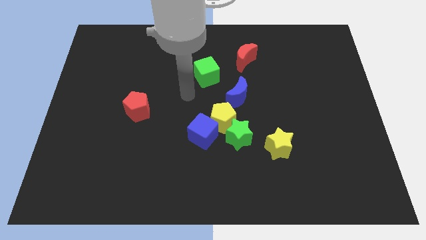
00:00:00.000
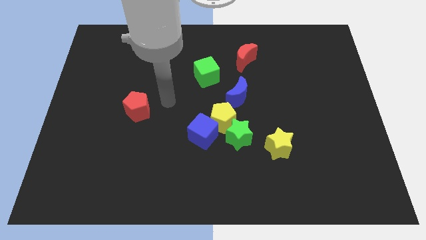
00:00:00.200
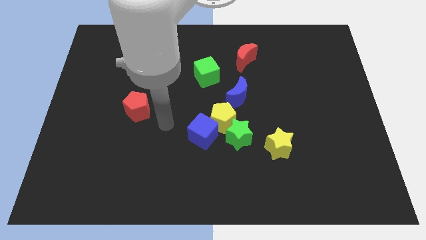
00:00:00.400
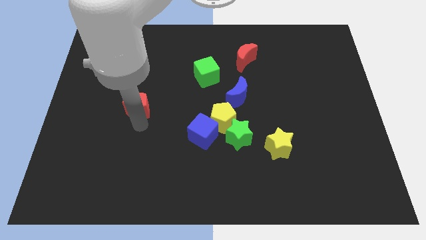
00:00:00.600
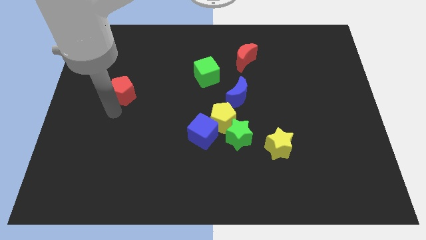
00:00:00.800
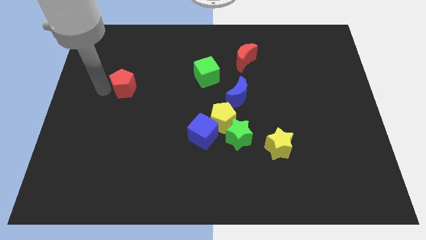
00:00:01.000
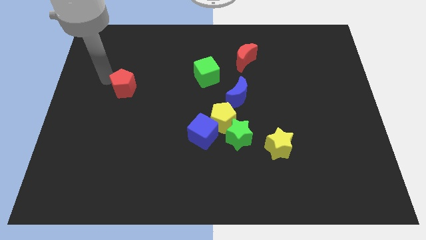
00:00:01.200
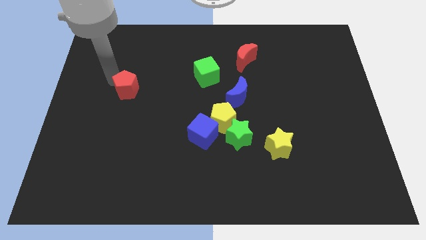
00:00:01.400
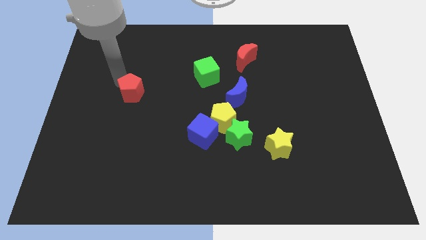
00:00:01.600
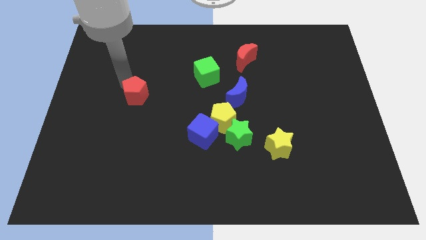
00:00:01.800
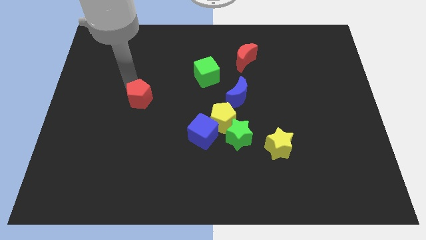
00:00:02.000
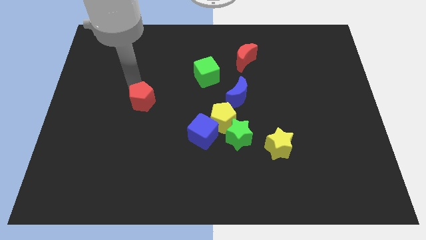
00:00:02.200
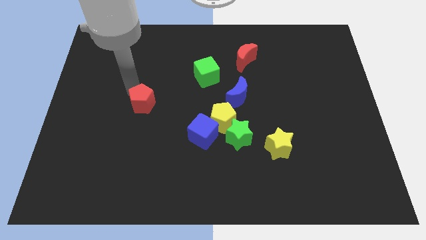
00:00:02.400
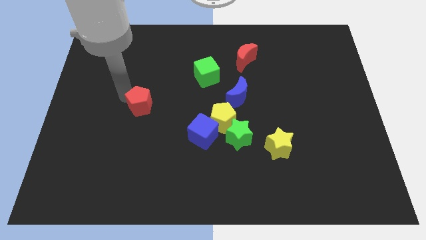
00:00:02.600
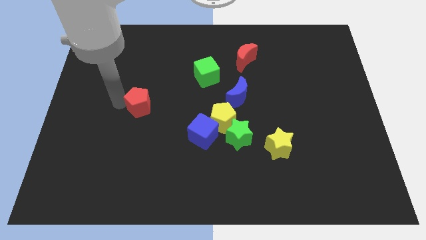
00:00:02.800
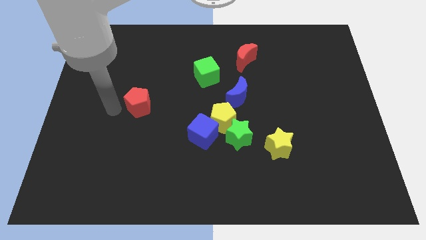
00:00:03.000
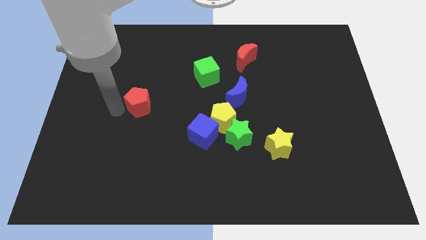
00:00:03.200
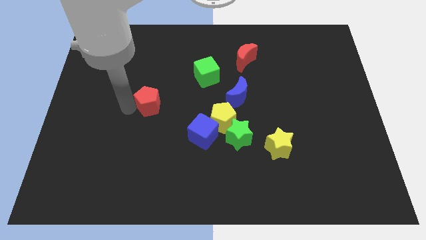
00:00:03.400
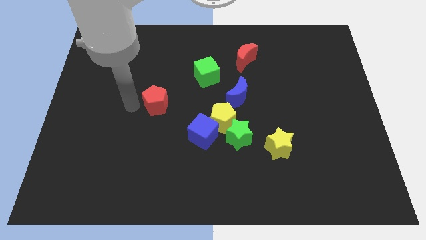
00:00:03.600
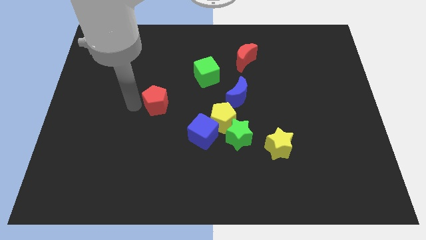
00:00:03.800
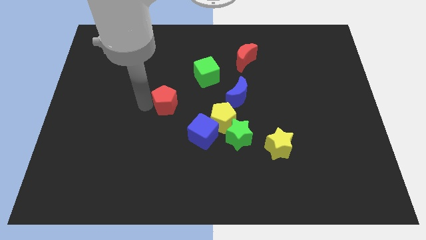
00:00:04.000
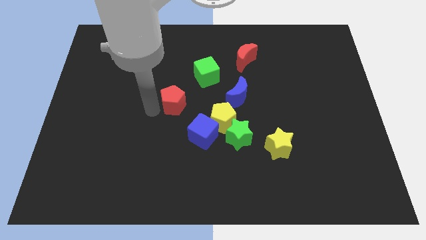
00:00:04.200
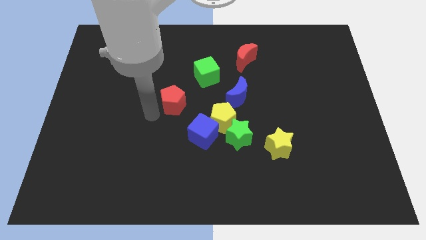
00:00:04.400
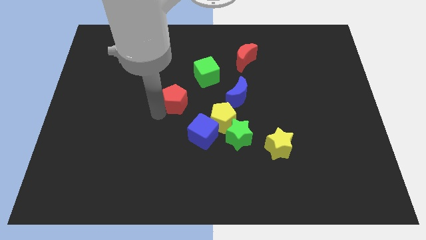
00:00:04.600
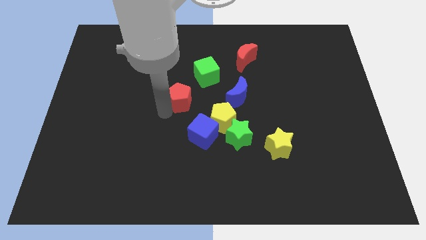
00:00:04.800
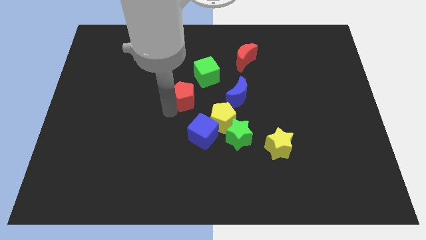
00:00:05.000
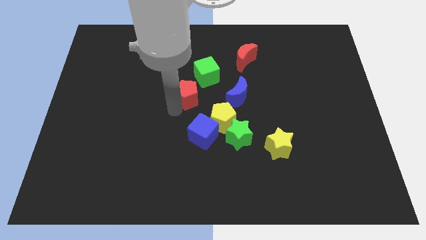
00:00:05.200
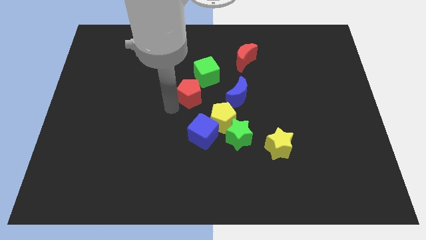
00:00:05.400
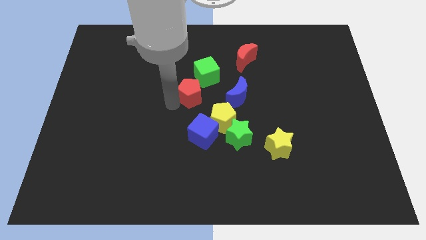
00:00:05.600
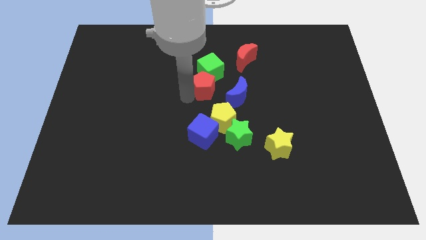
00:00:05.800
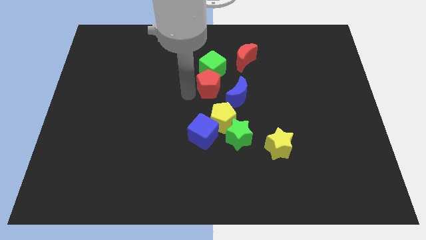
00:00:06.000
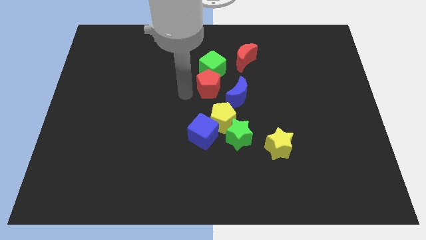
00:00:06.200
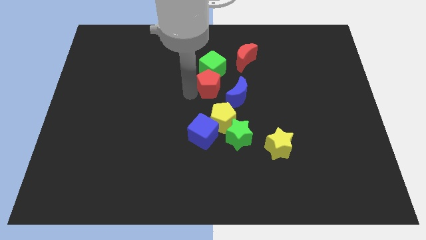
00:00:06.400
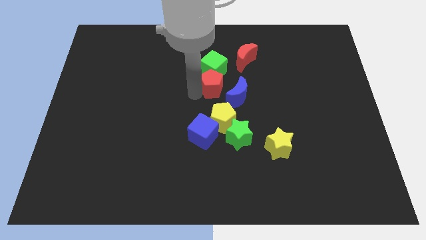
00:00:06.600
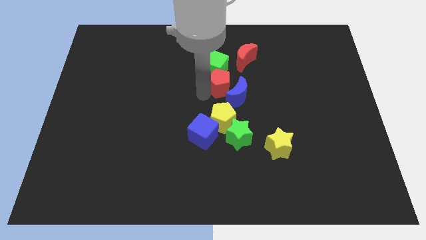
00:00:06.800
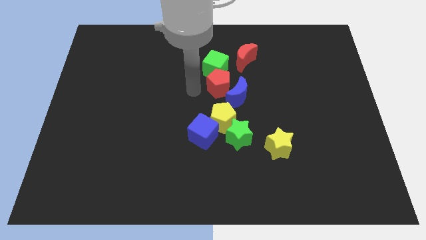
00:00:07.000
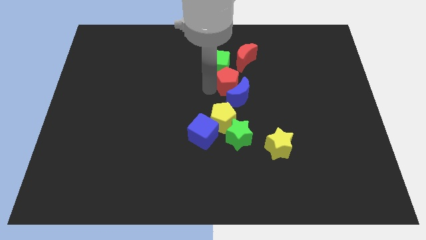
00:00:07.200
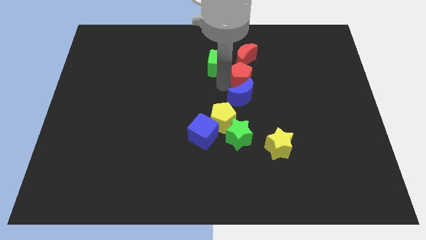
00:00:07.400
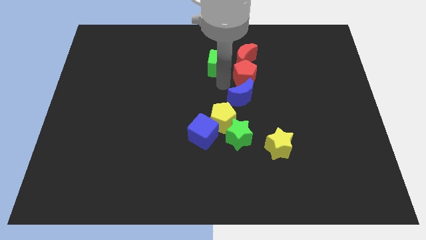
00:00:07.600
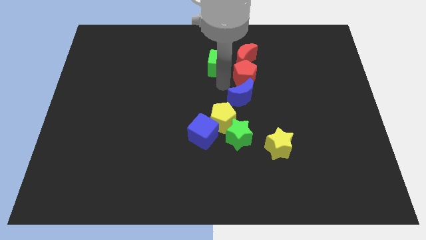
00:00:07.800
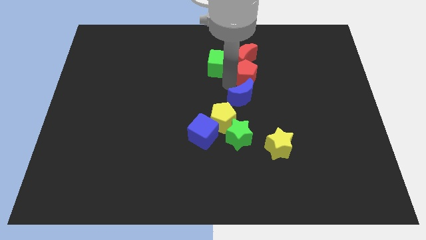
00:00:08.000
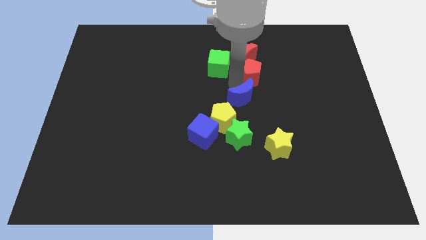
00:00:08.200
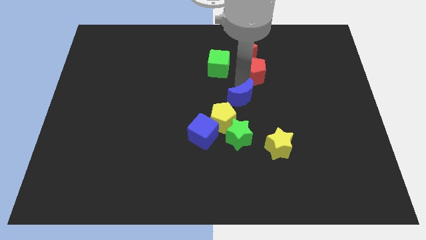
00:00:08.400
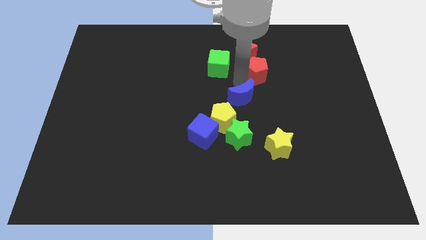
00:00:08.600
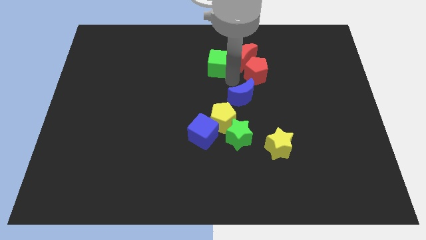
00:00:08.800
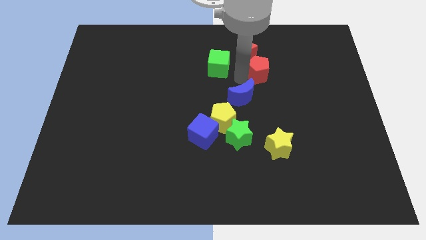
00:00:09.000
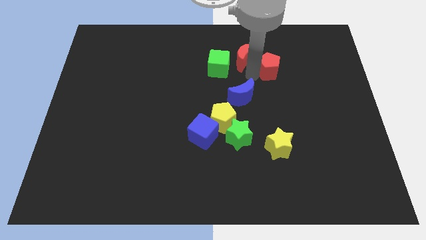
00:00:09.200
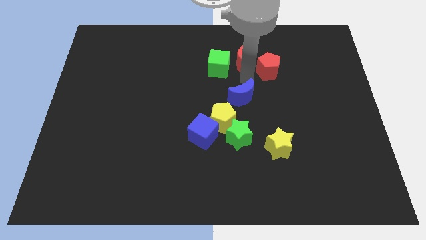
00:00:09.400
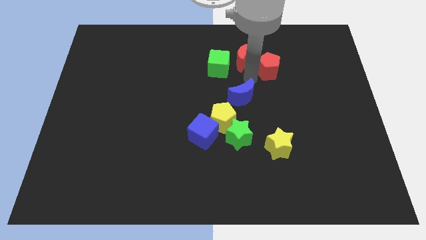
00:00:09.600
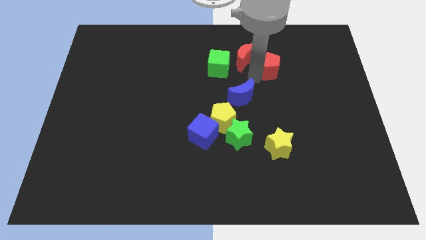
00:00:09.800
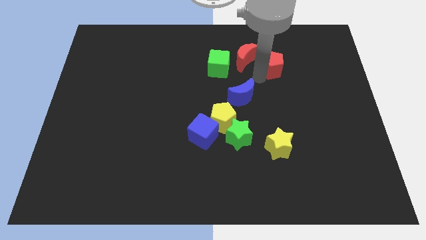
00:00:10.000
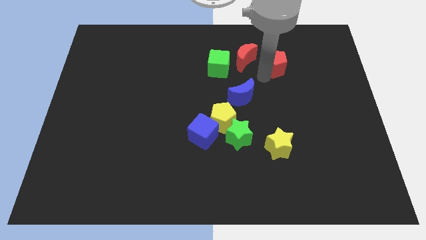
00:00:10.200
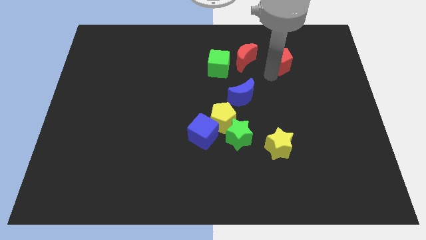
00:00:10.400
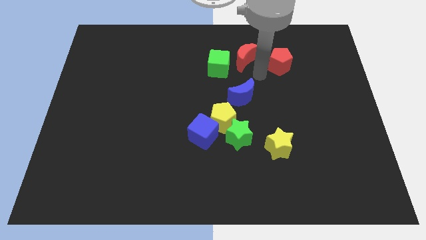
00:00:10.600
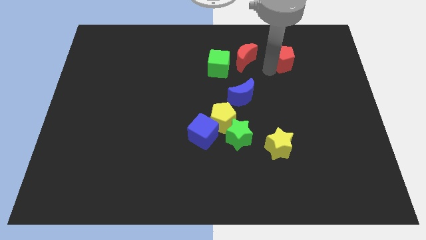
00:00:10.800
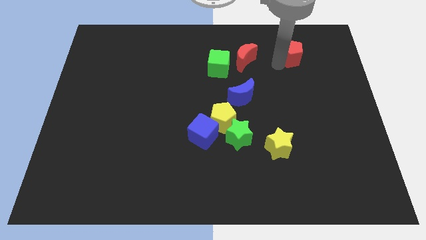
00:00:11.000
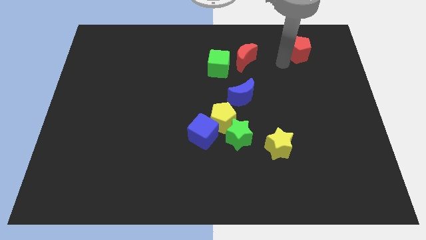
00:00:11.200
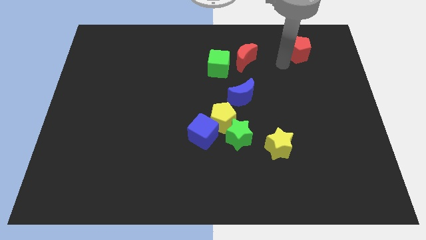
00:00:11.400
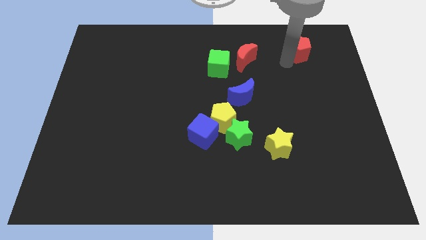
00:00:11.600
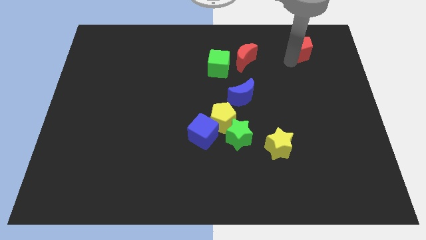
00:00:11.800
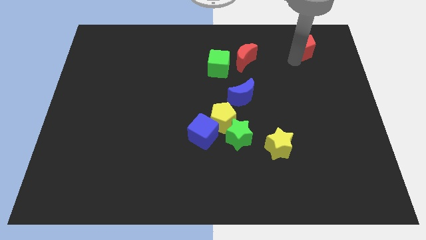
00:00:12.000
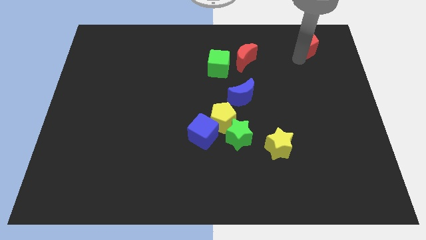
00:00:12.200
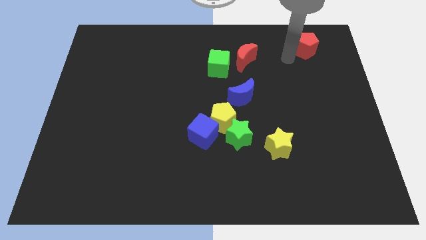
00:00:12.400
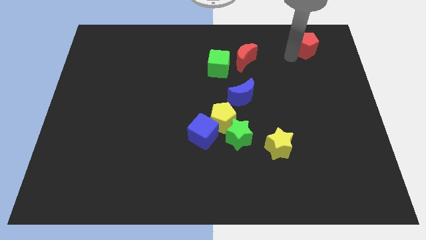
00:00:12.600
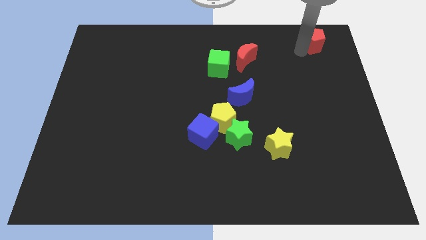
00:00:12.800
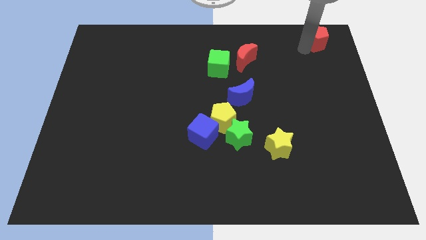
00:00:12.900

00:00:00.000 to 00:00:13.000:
push the red pentagon to the top right
